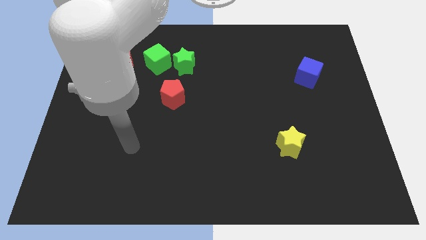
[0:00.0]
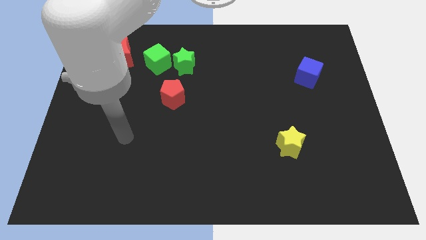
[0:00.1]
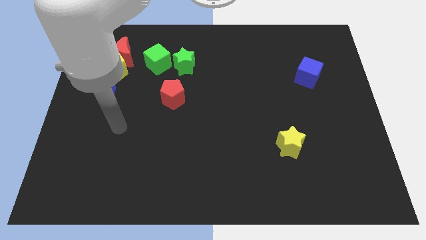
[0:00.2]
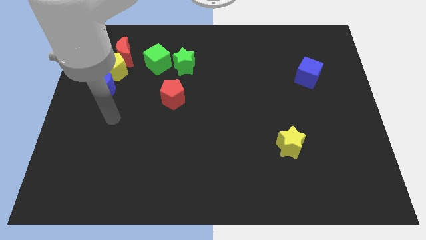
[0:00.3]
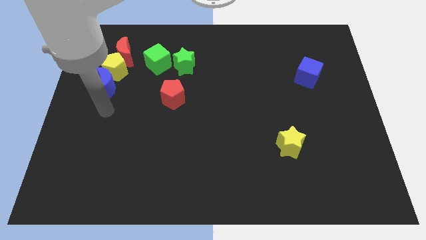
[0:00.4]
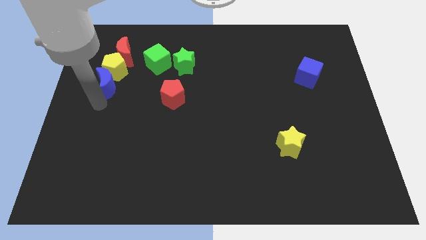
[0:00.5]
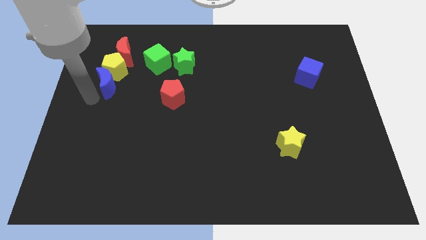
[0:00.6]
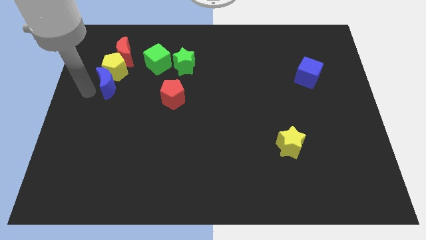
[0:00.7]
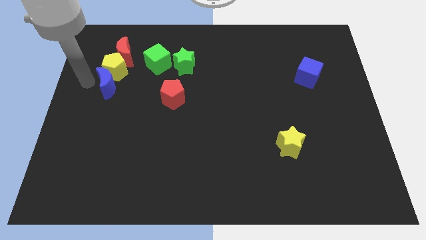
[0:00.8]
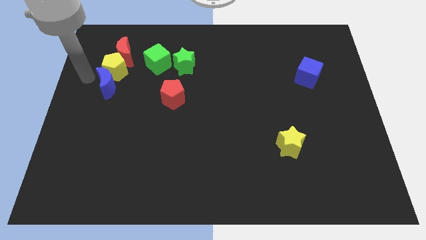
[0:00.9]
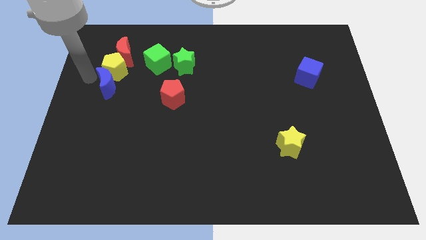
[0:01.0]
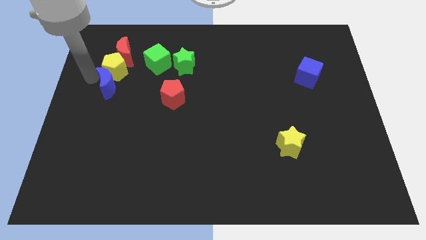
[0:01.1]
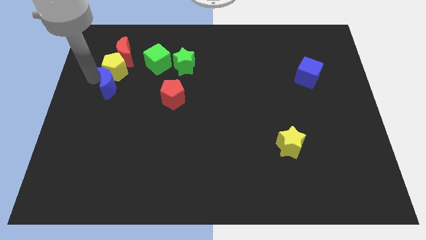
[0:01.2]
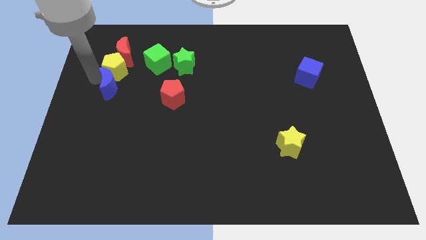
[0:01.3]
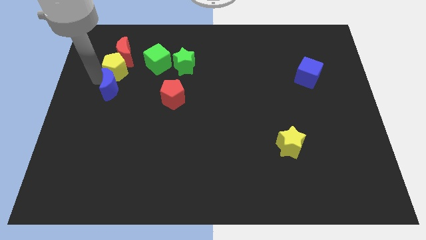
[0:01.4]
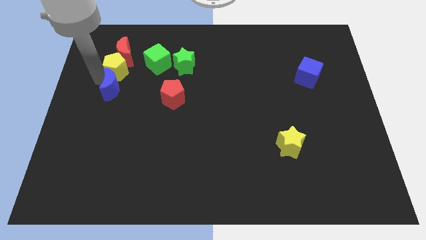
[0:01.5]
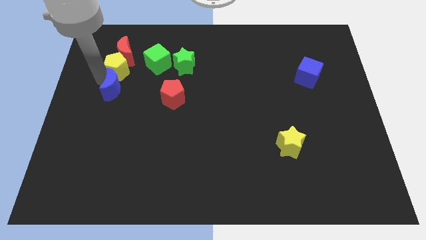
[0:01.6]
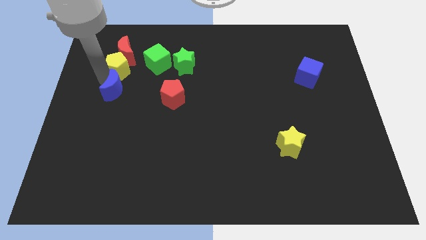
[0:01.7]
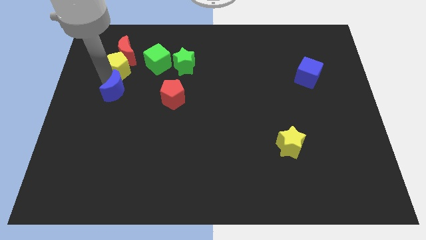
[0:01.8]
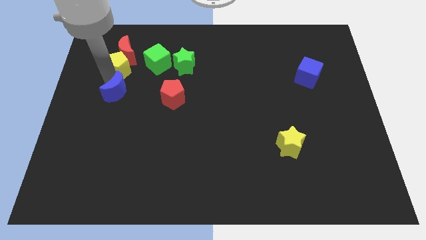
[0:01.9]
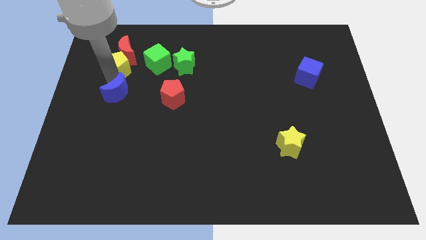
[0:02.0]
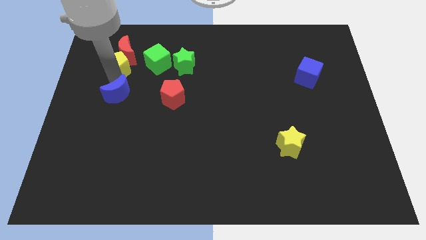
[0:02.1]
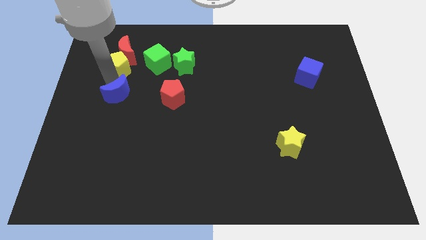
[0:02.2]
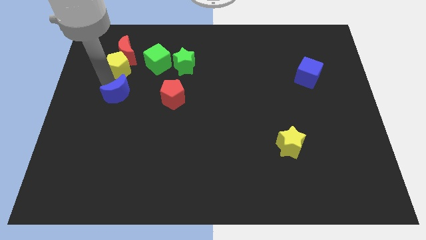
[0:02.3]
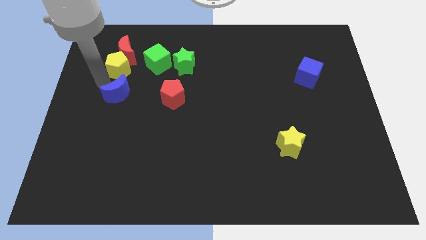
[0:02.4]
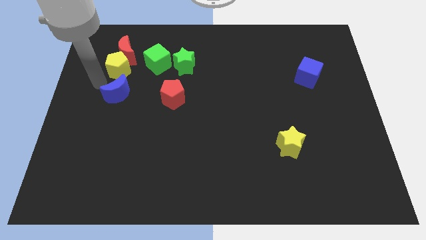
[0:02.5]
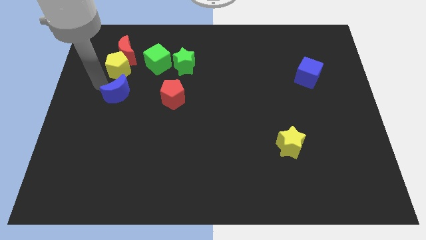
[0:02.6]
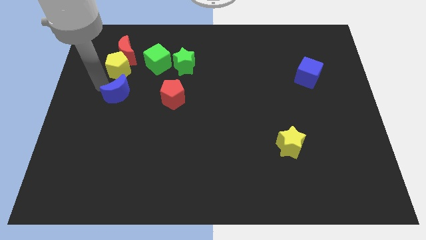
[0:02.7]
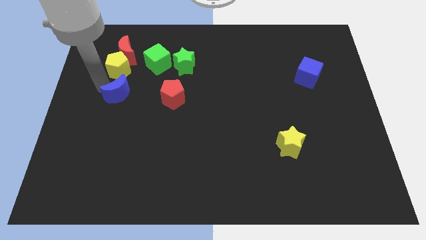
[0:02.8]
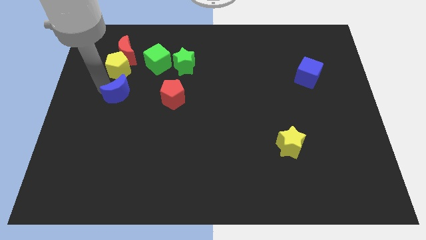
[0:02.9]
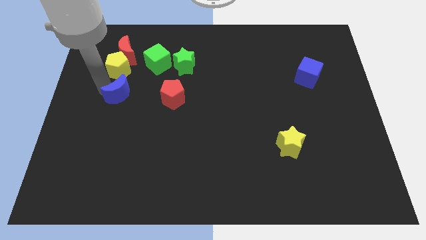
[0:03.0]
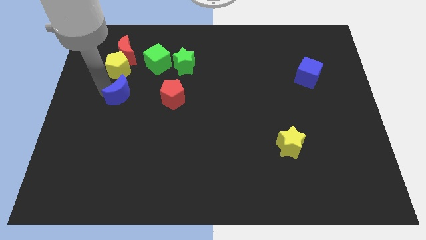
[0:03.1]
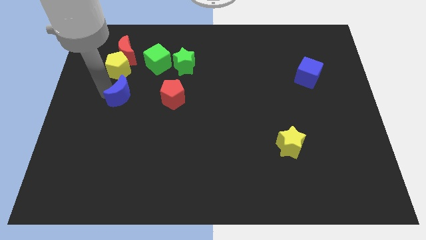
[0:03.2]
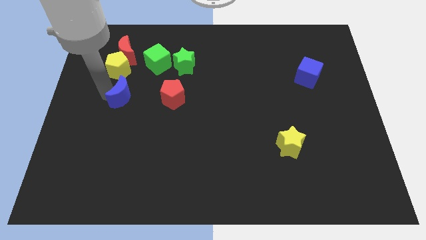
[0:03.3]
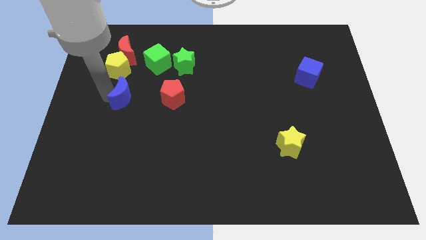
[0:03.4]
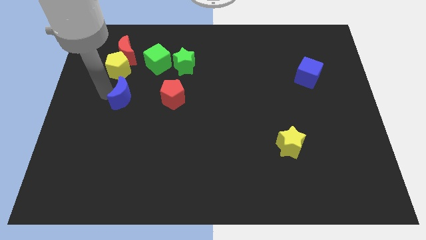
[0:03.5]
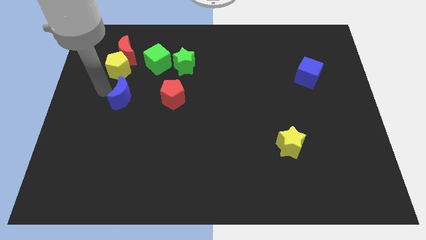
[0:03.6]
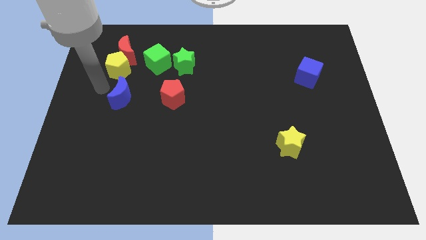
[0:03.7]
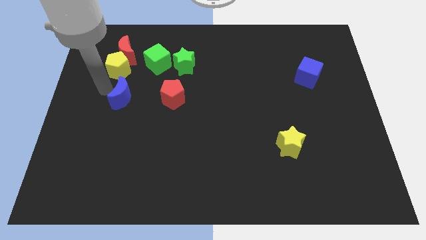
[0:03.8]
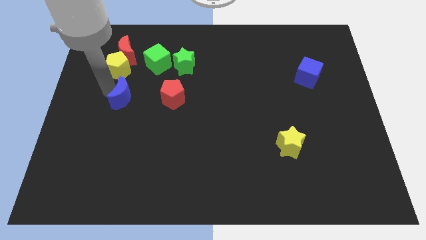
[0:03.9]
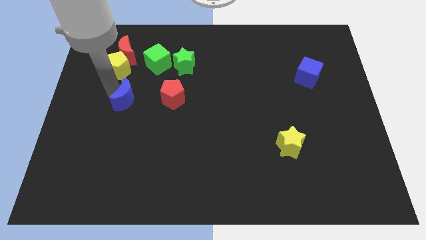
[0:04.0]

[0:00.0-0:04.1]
slide the blue moon diagonally downwards and right a little bit

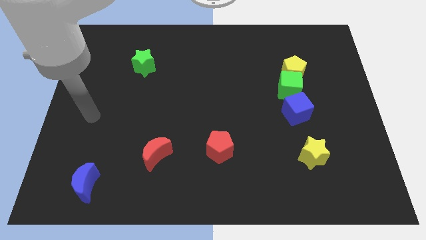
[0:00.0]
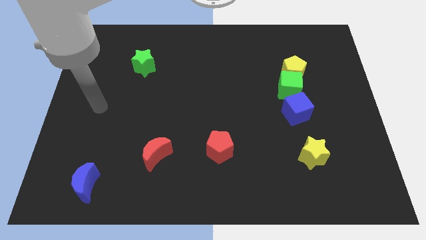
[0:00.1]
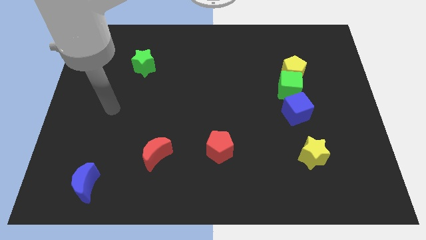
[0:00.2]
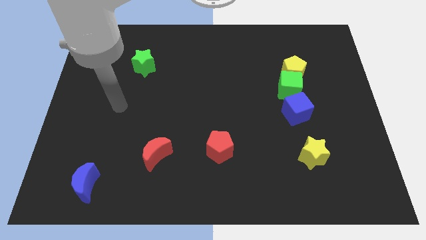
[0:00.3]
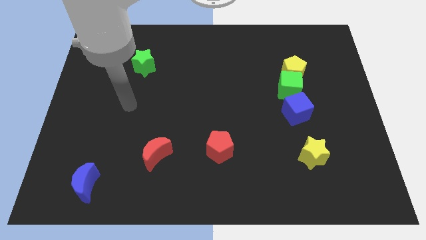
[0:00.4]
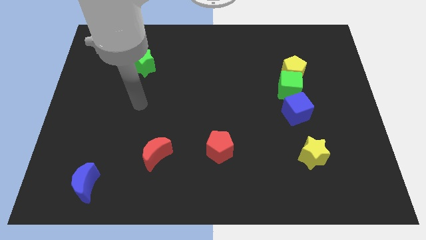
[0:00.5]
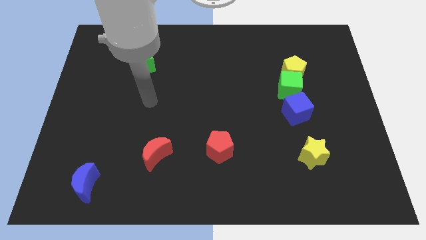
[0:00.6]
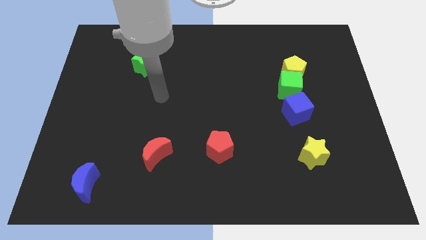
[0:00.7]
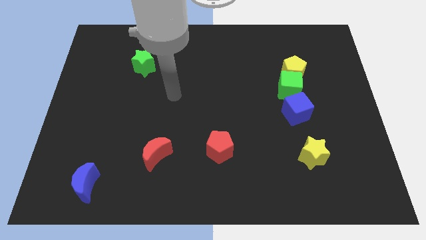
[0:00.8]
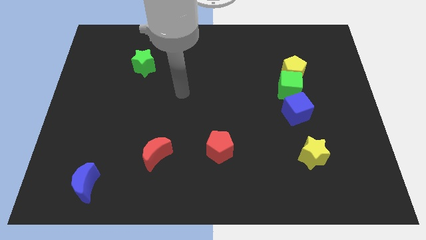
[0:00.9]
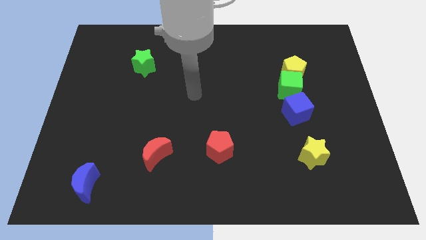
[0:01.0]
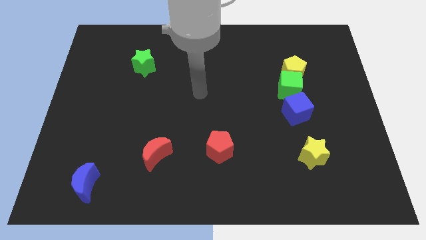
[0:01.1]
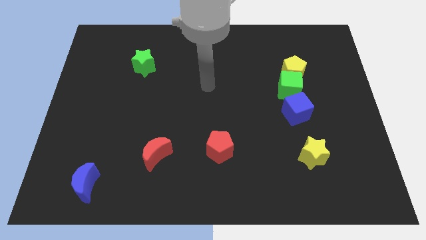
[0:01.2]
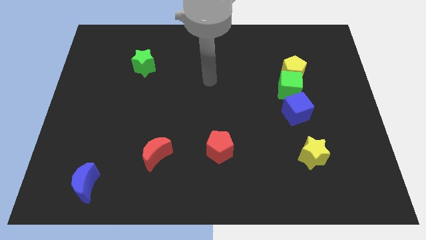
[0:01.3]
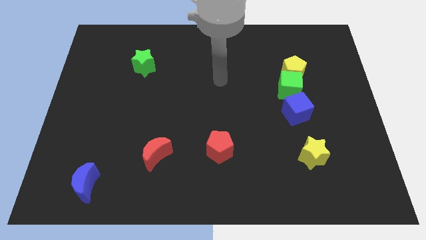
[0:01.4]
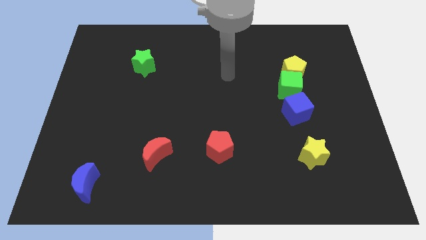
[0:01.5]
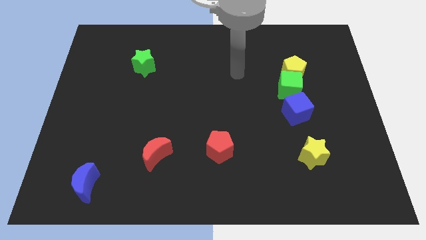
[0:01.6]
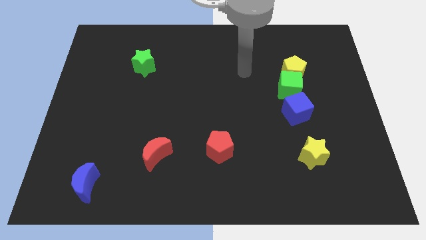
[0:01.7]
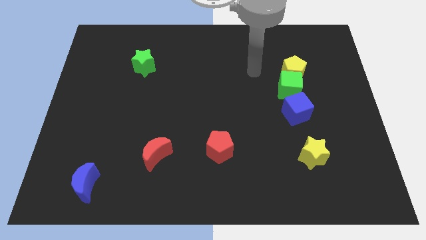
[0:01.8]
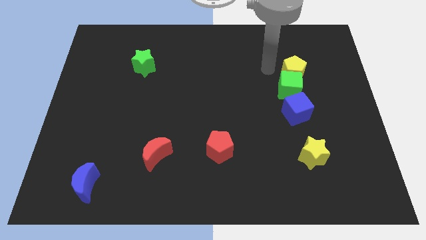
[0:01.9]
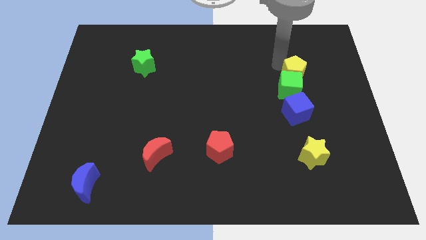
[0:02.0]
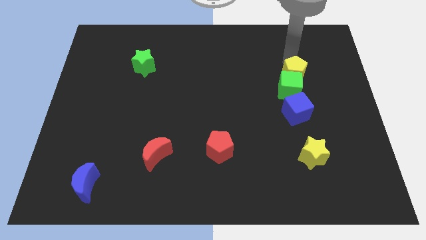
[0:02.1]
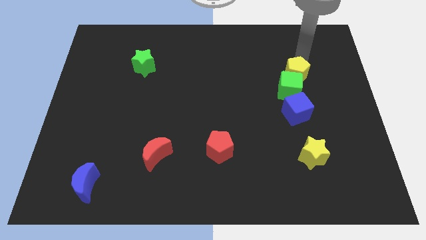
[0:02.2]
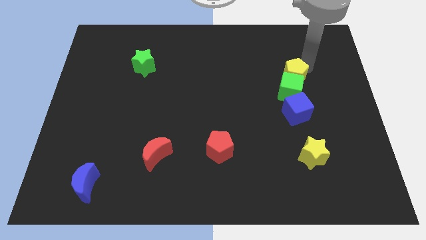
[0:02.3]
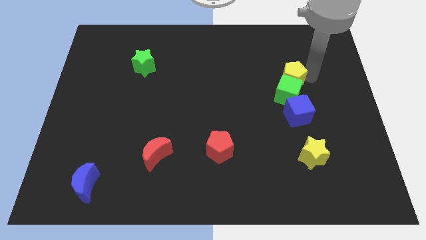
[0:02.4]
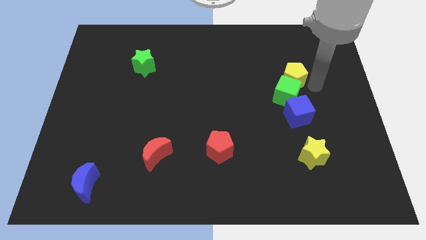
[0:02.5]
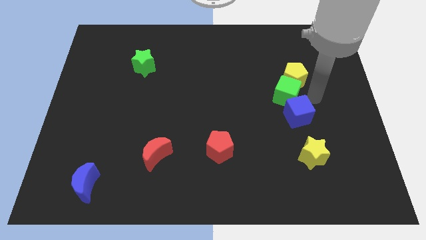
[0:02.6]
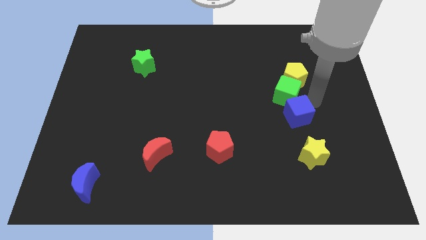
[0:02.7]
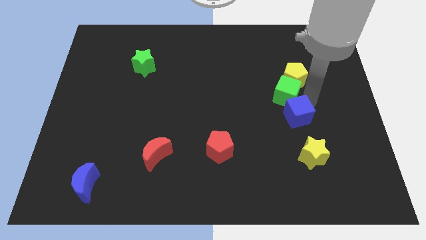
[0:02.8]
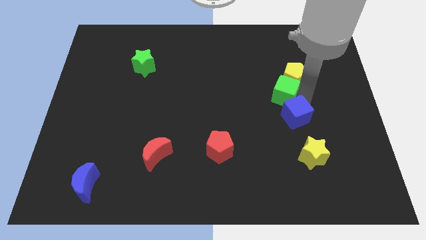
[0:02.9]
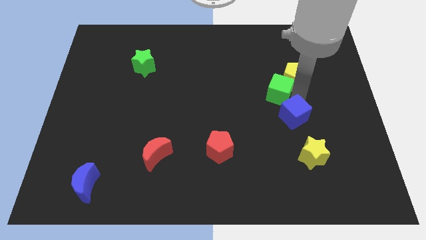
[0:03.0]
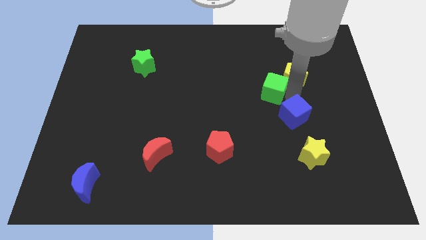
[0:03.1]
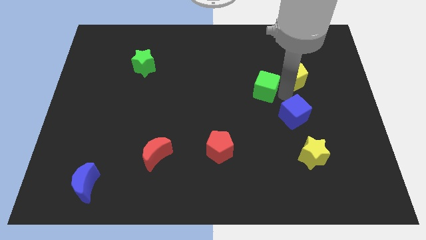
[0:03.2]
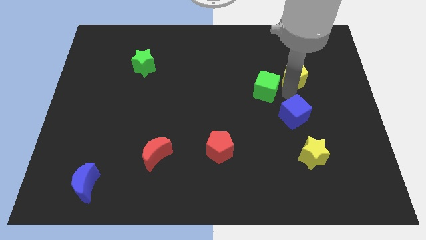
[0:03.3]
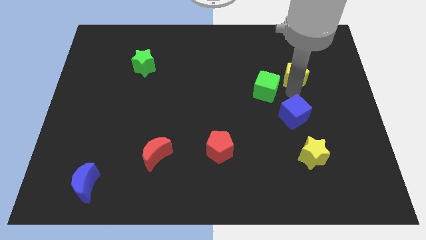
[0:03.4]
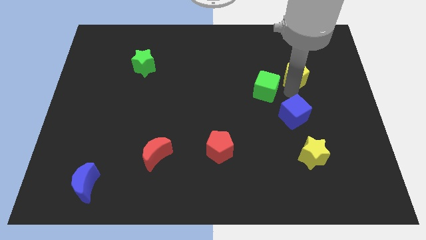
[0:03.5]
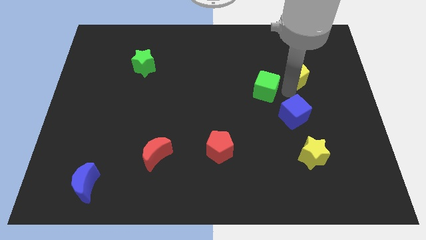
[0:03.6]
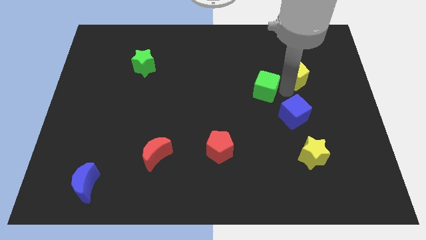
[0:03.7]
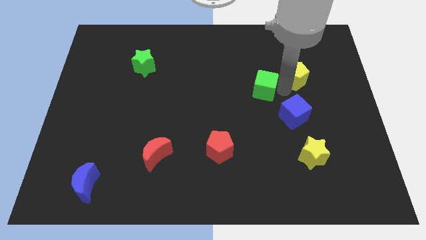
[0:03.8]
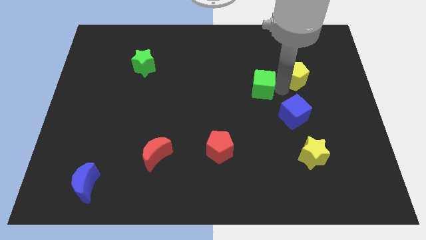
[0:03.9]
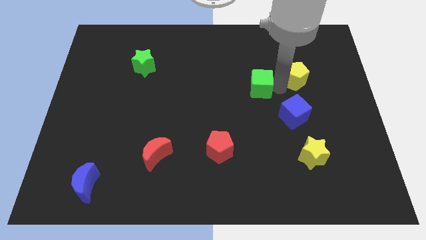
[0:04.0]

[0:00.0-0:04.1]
push the green cube left somewhat
